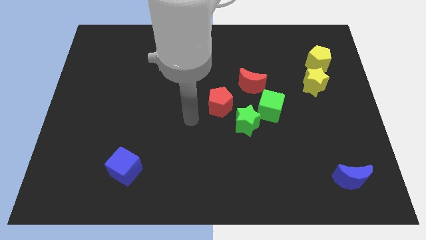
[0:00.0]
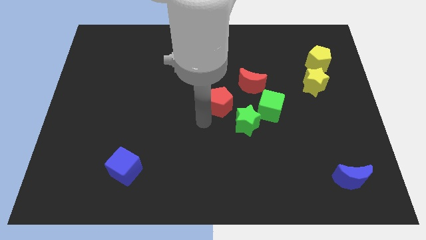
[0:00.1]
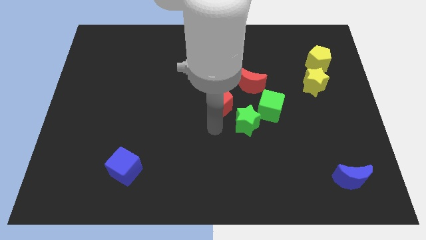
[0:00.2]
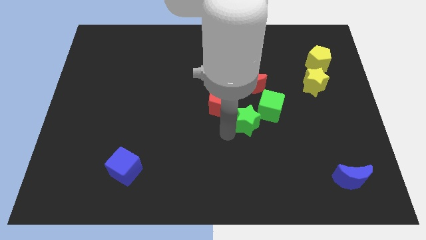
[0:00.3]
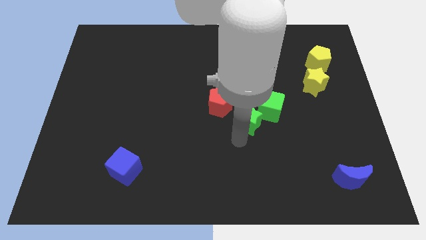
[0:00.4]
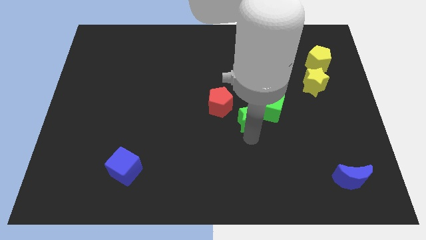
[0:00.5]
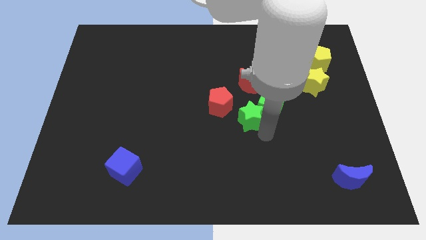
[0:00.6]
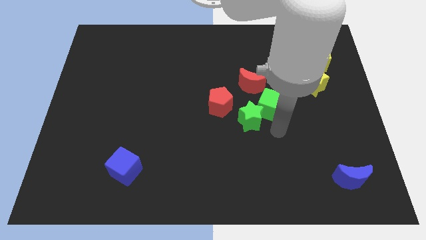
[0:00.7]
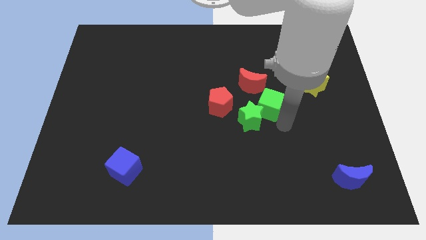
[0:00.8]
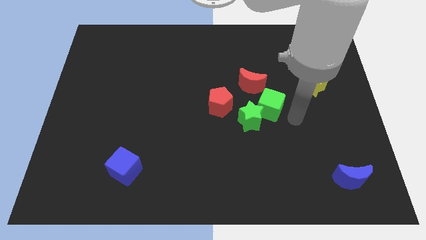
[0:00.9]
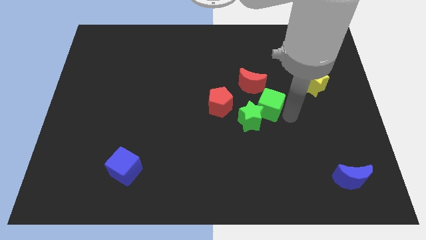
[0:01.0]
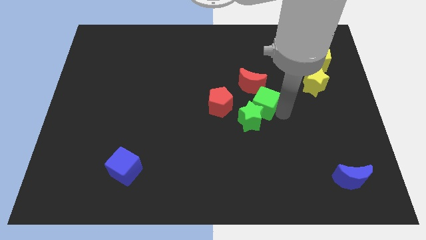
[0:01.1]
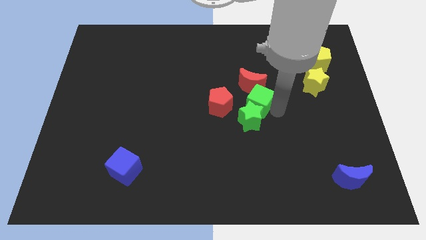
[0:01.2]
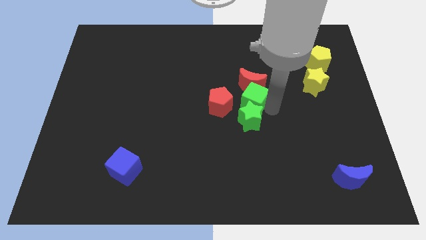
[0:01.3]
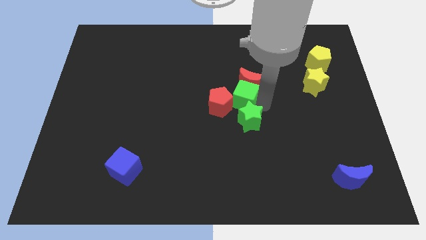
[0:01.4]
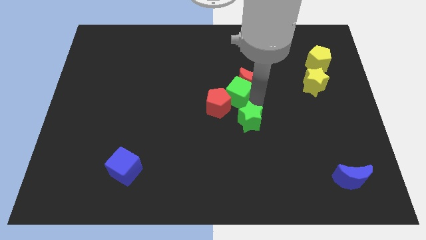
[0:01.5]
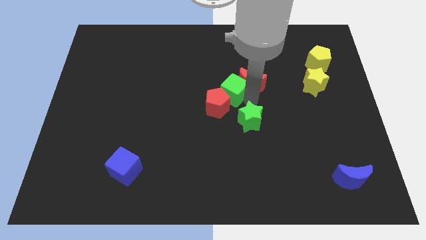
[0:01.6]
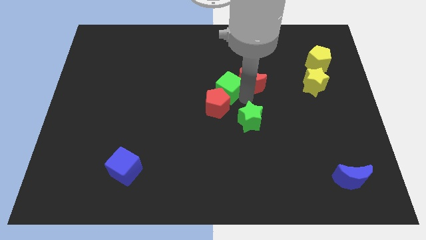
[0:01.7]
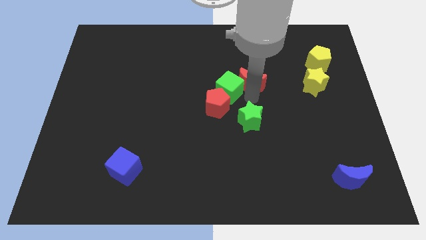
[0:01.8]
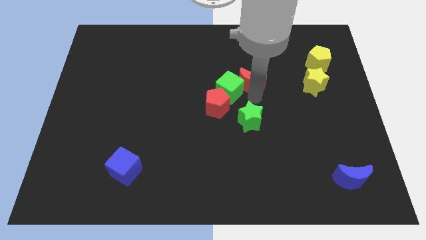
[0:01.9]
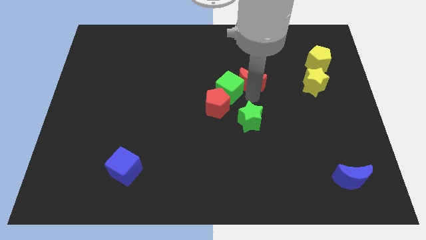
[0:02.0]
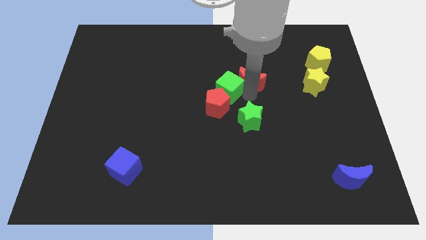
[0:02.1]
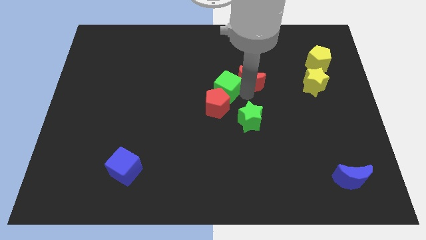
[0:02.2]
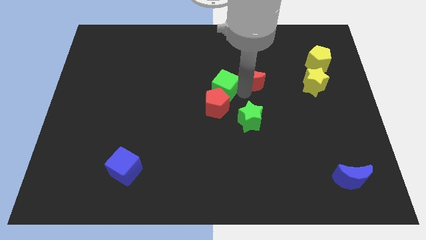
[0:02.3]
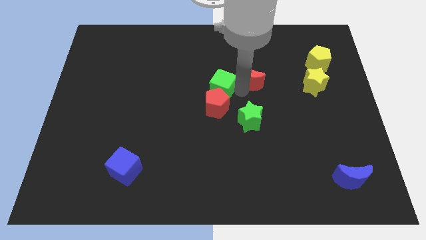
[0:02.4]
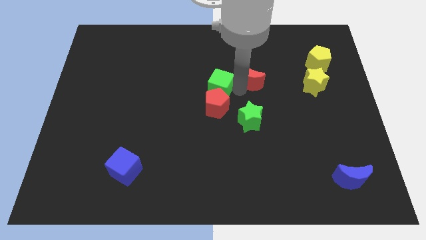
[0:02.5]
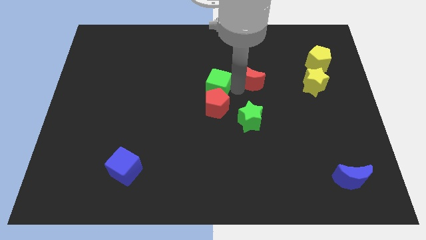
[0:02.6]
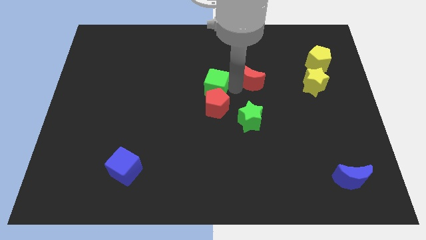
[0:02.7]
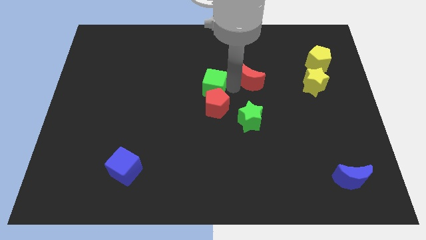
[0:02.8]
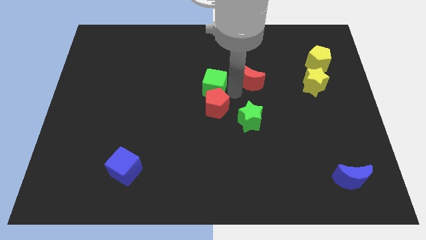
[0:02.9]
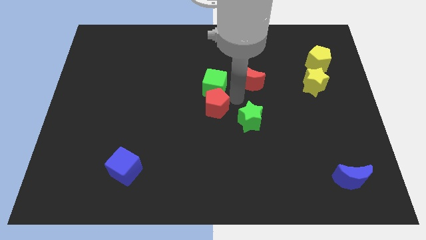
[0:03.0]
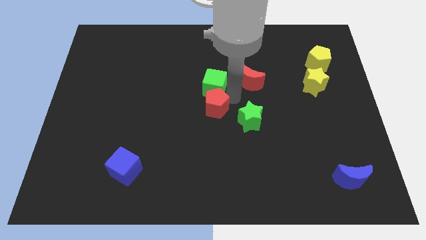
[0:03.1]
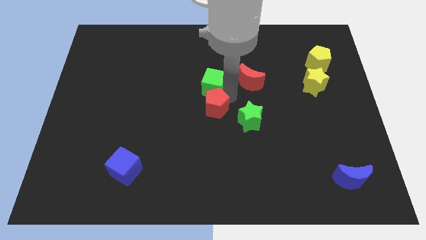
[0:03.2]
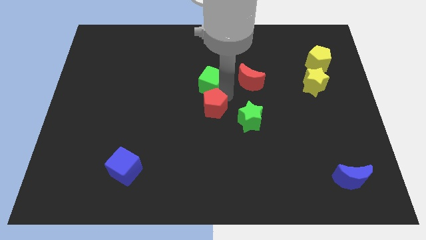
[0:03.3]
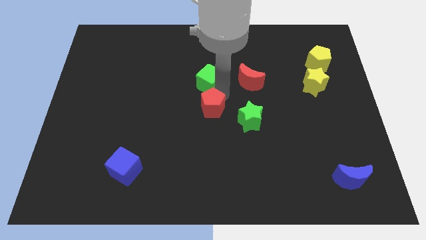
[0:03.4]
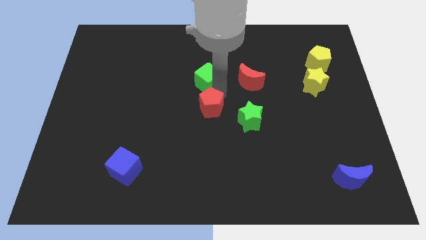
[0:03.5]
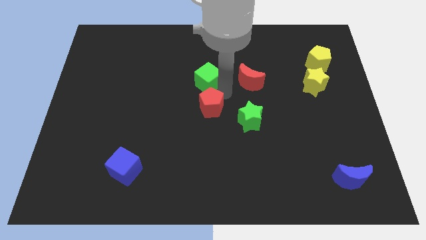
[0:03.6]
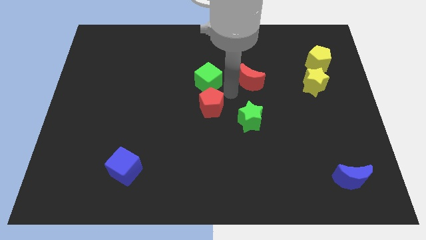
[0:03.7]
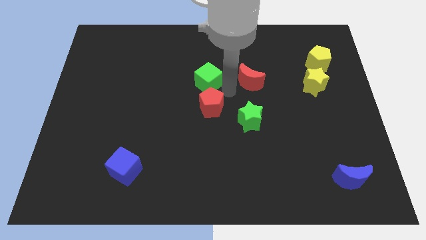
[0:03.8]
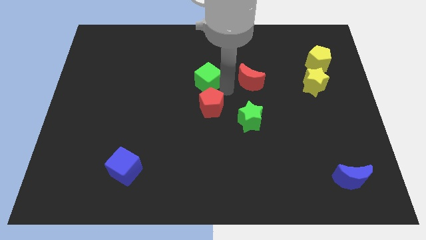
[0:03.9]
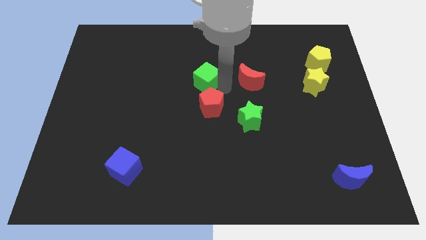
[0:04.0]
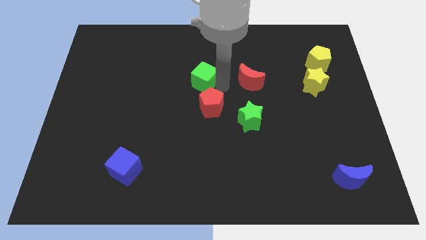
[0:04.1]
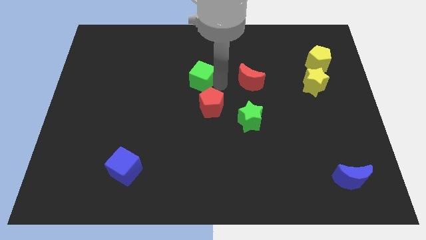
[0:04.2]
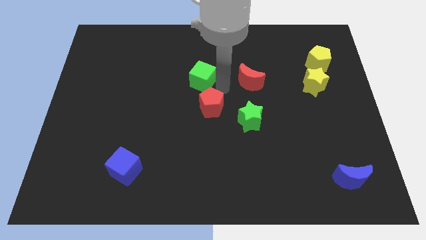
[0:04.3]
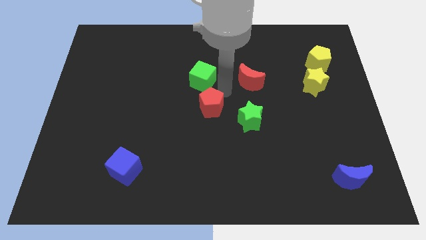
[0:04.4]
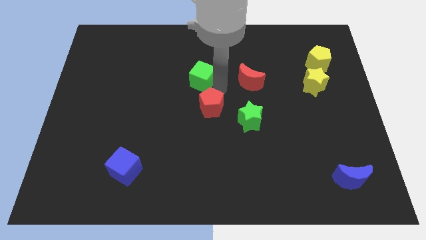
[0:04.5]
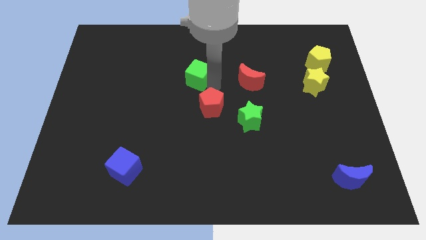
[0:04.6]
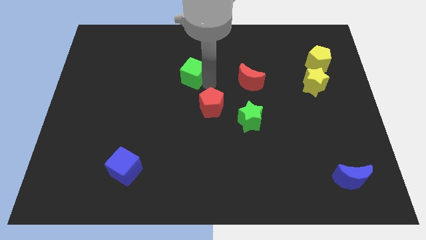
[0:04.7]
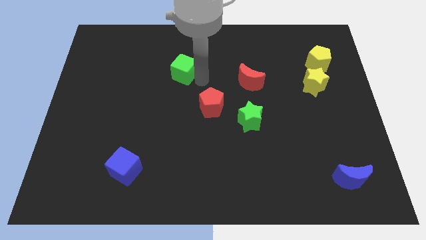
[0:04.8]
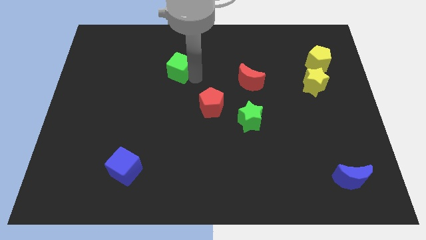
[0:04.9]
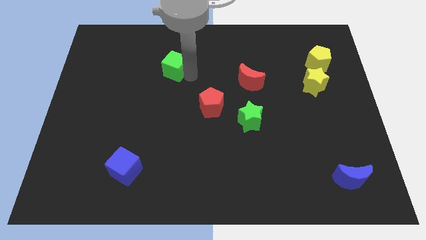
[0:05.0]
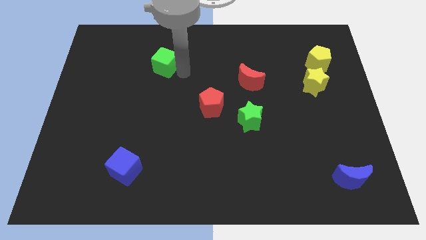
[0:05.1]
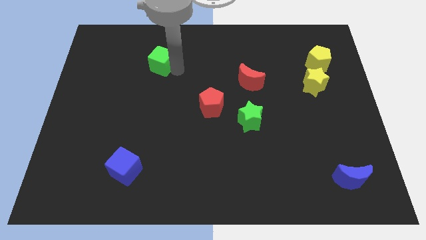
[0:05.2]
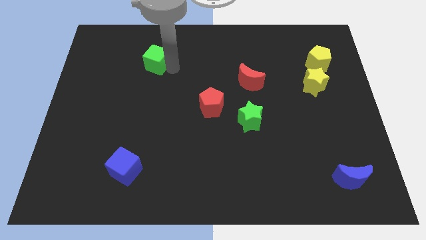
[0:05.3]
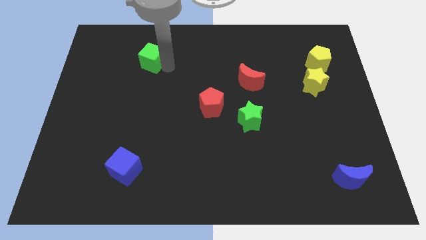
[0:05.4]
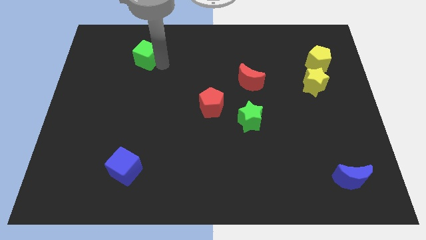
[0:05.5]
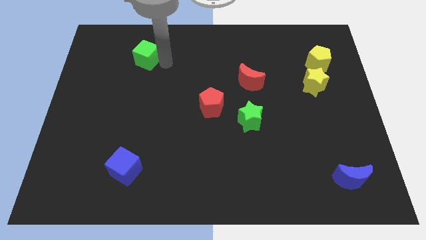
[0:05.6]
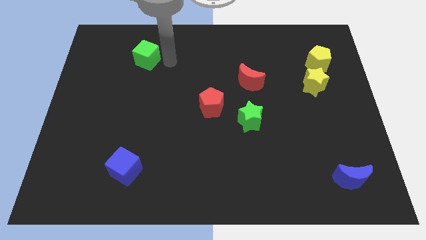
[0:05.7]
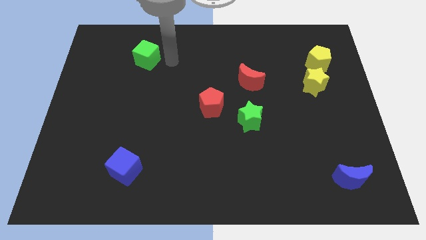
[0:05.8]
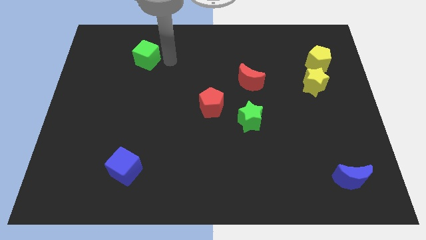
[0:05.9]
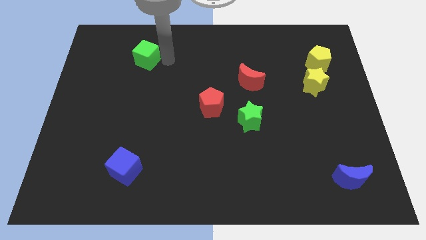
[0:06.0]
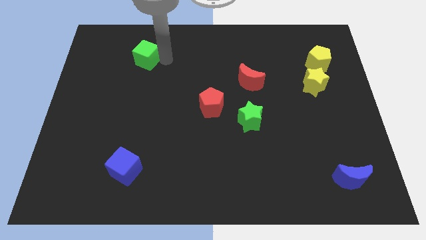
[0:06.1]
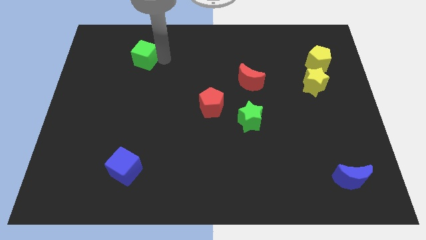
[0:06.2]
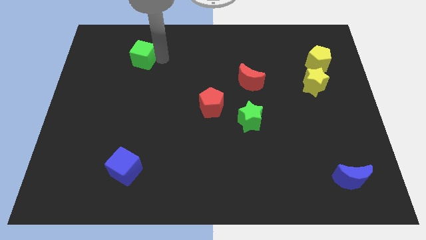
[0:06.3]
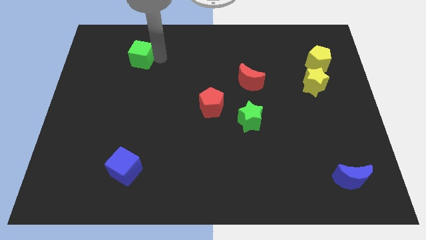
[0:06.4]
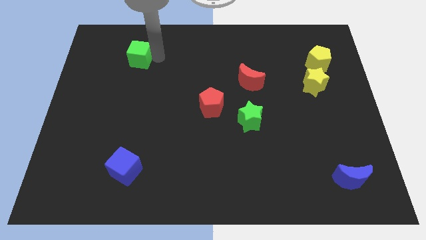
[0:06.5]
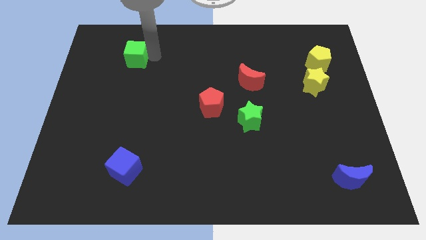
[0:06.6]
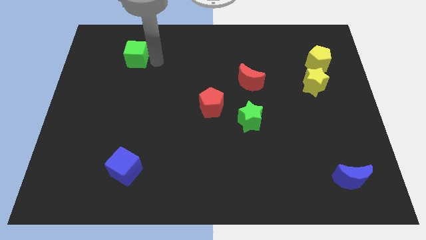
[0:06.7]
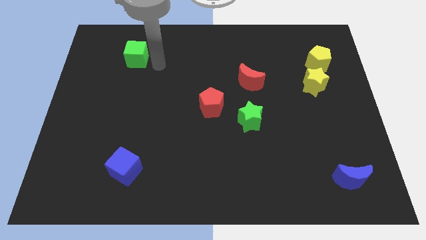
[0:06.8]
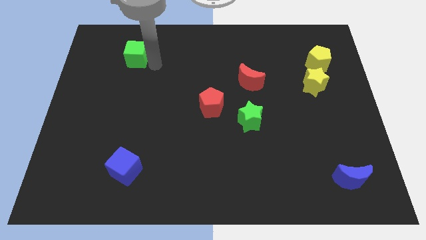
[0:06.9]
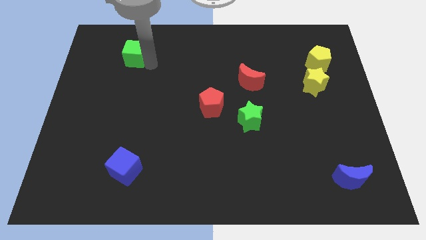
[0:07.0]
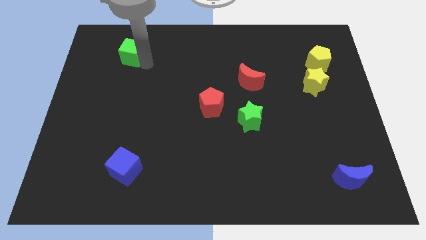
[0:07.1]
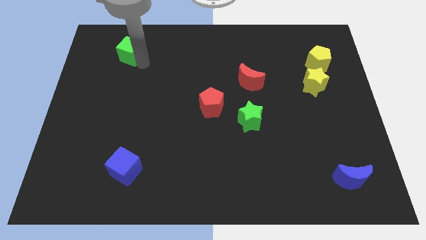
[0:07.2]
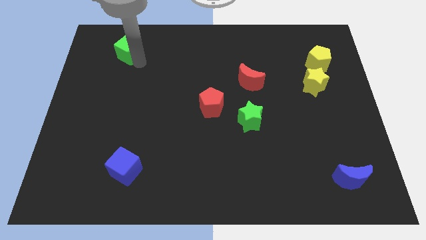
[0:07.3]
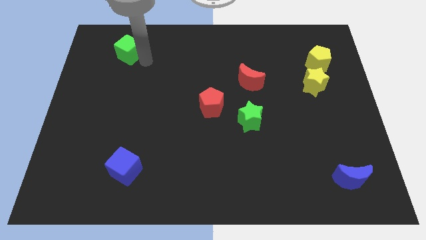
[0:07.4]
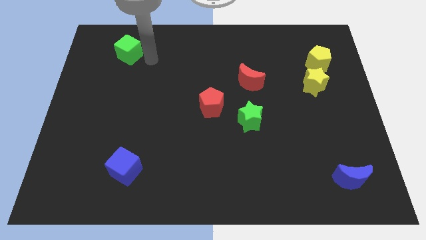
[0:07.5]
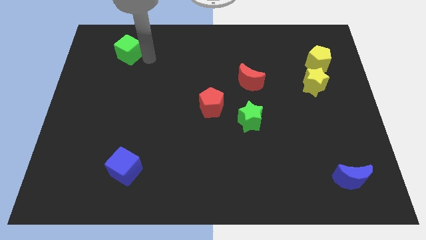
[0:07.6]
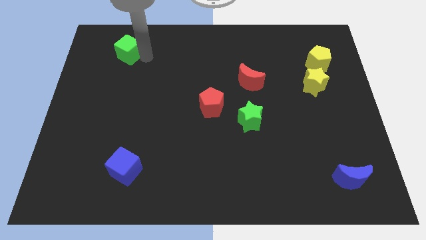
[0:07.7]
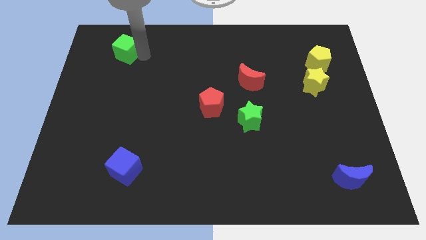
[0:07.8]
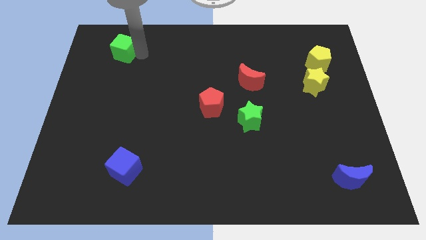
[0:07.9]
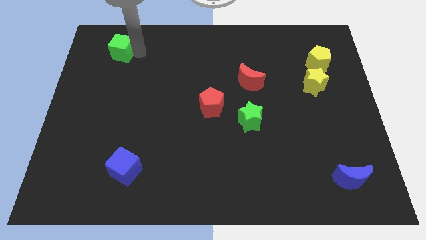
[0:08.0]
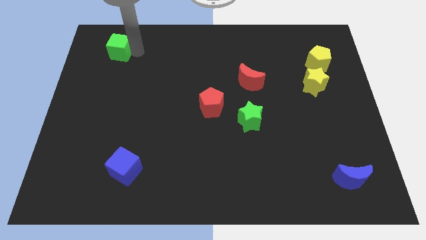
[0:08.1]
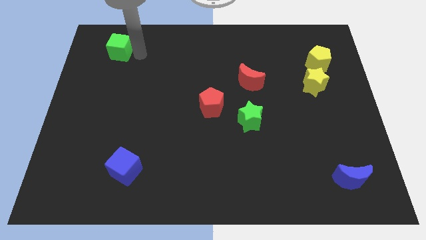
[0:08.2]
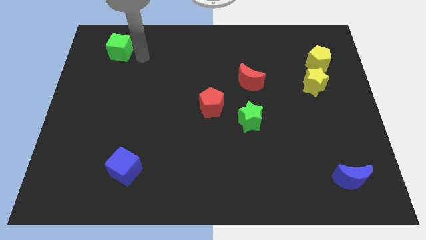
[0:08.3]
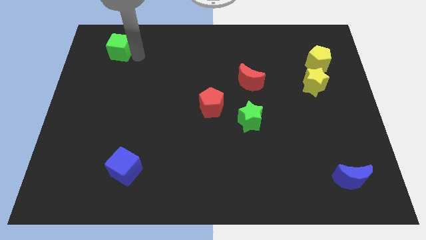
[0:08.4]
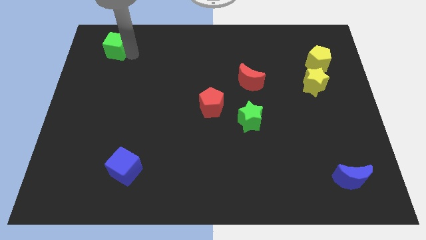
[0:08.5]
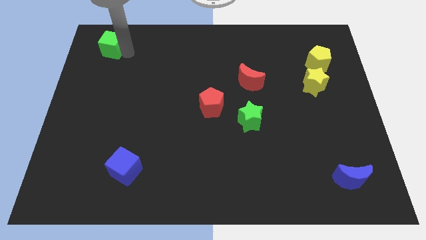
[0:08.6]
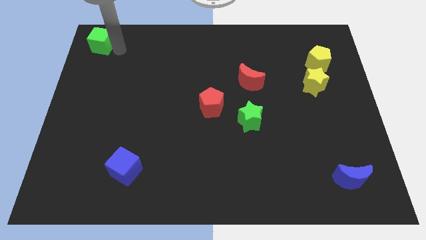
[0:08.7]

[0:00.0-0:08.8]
move the green cube to the top left corner
